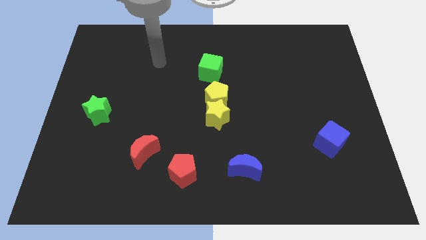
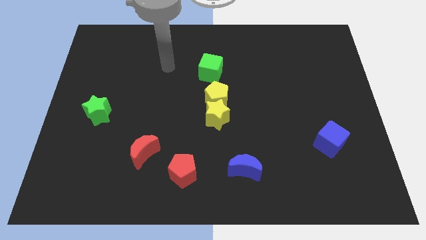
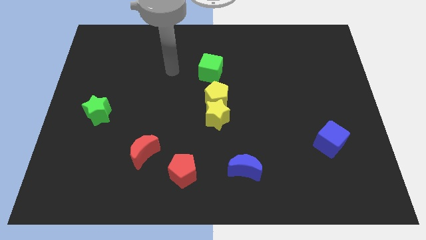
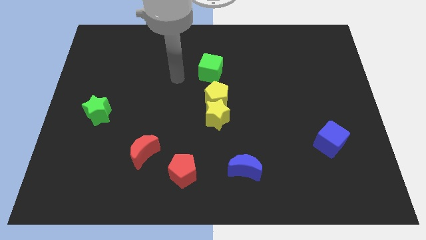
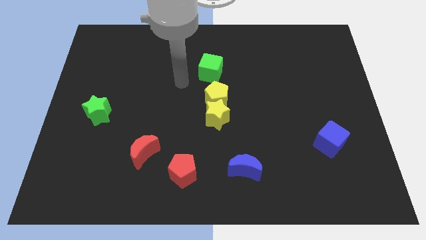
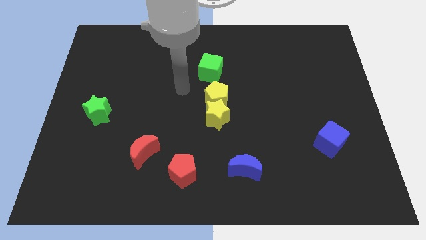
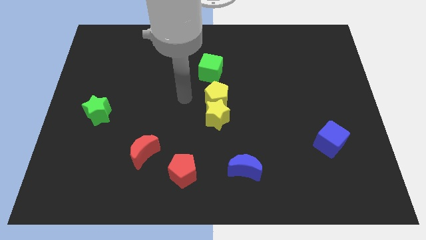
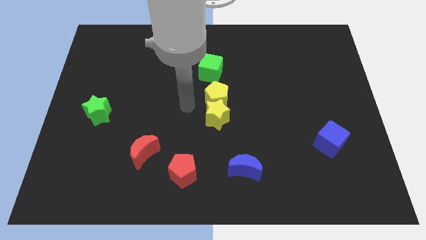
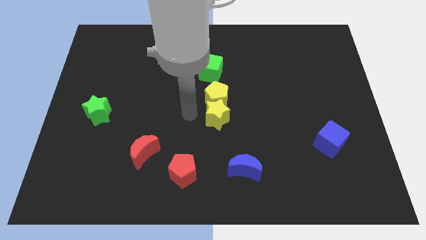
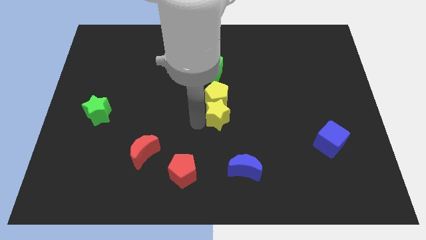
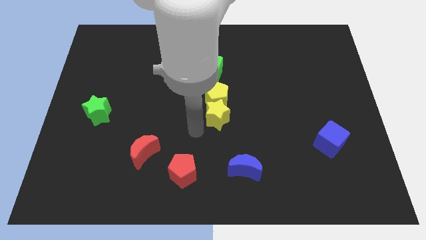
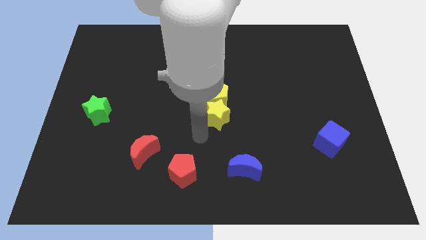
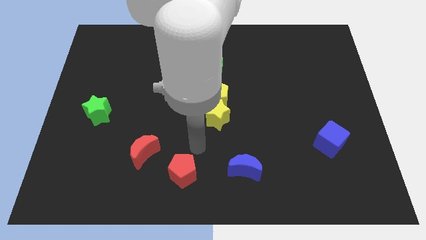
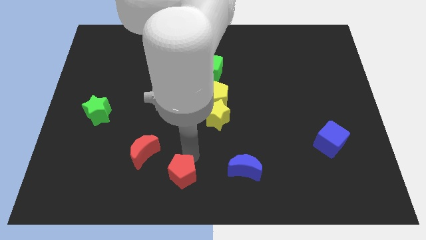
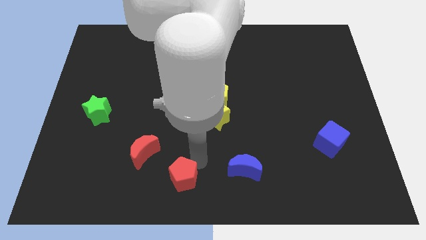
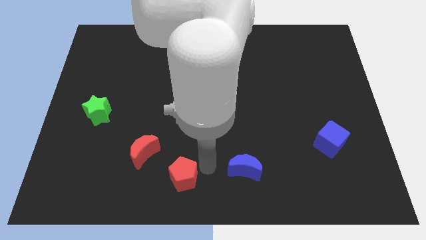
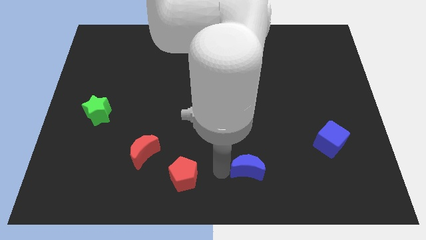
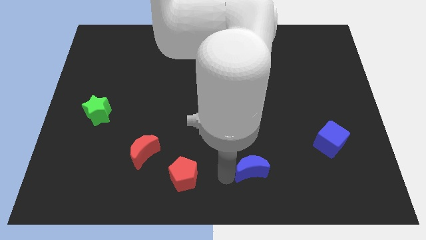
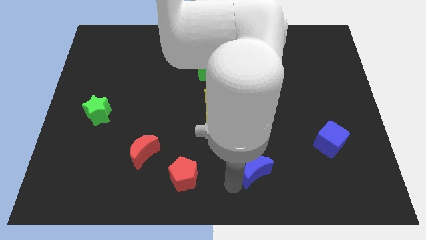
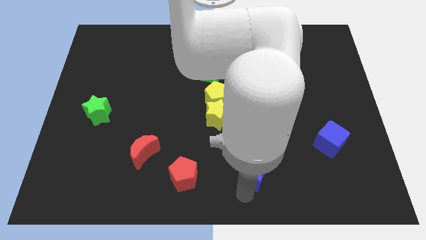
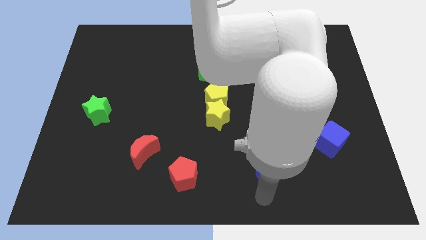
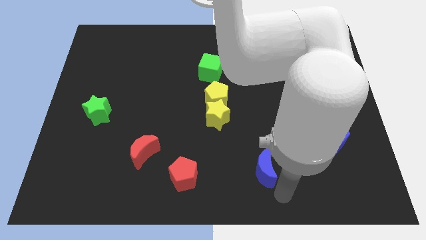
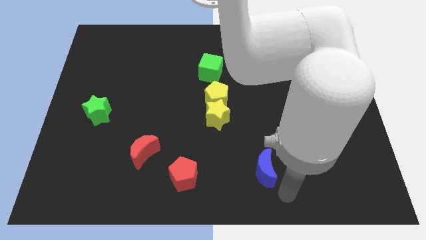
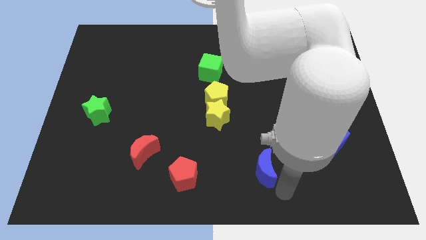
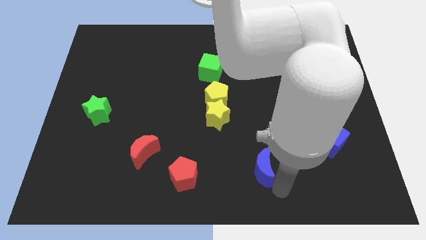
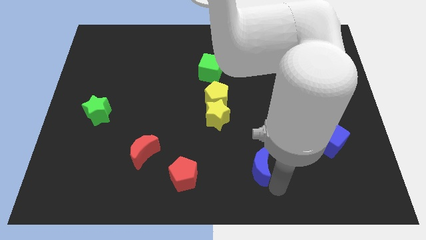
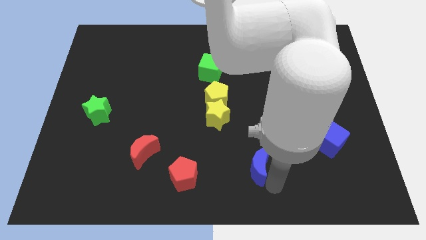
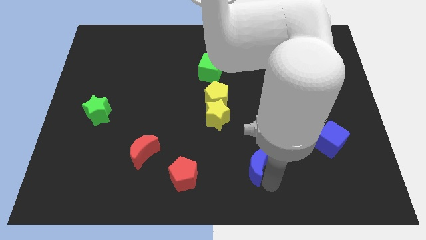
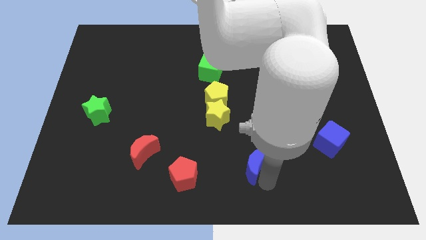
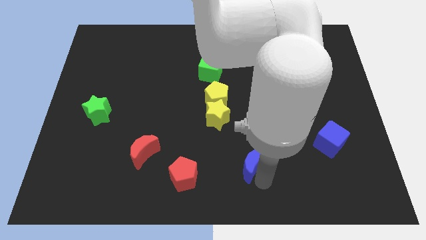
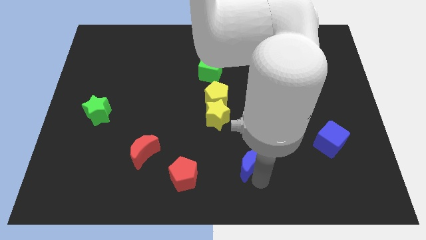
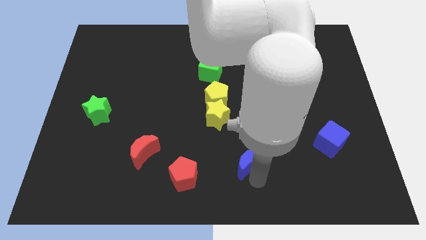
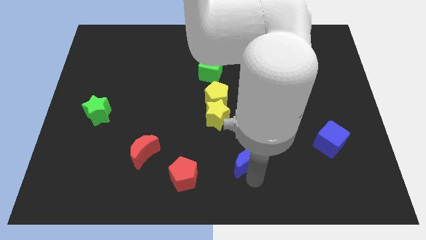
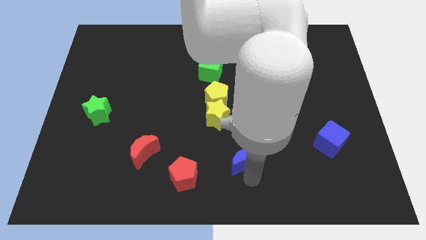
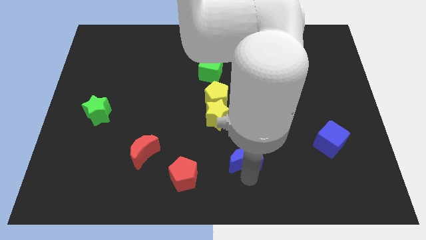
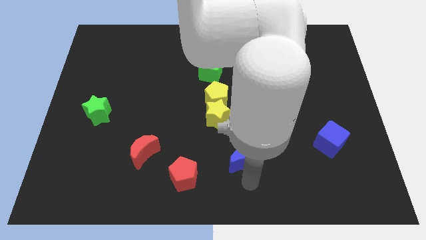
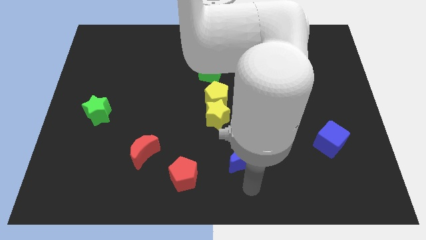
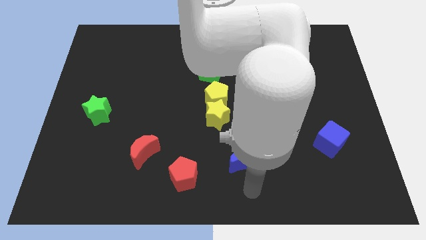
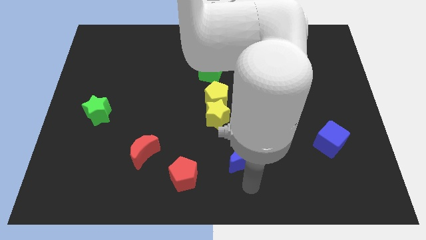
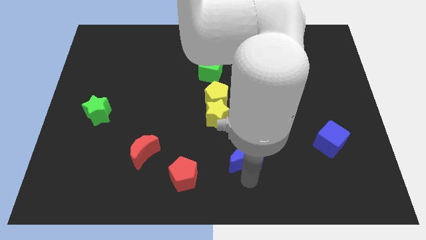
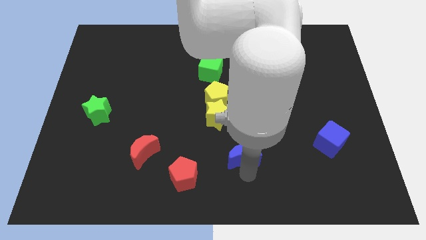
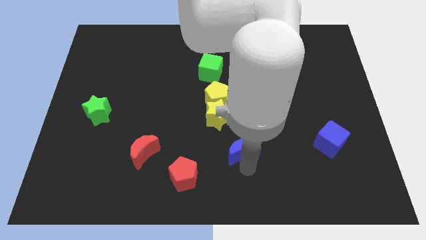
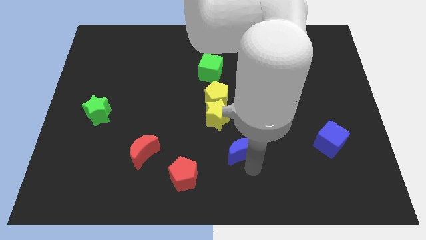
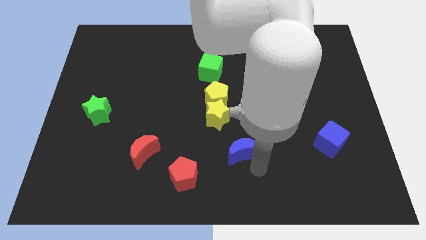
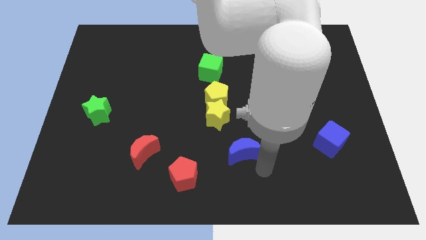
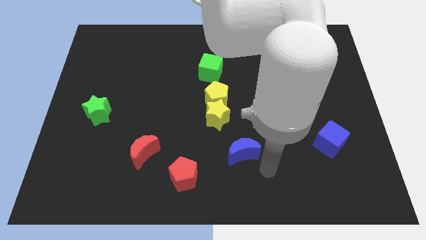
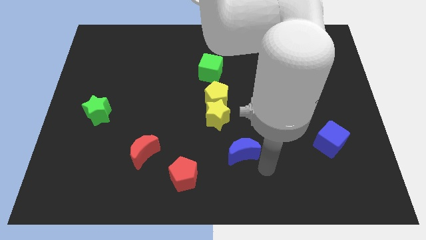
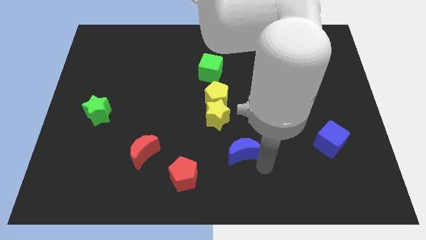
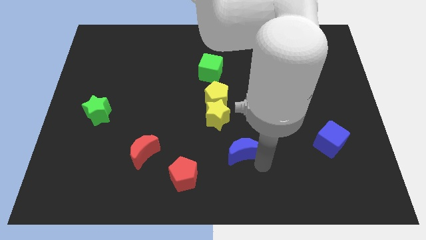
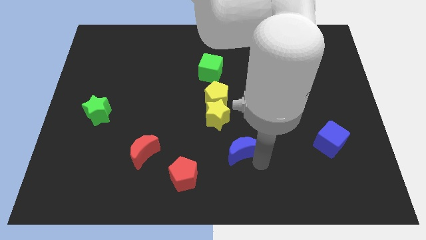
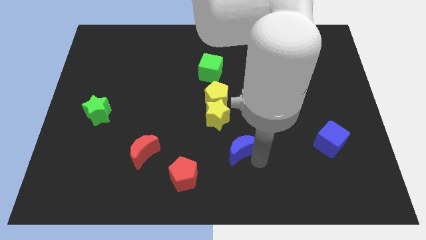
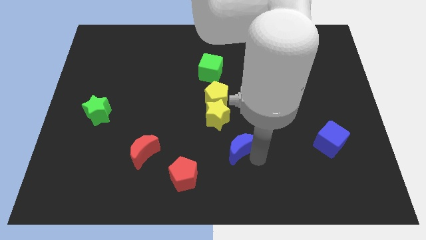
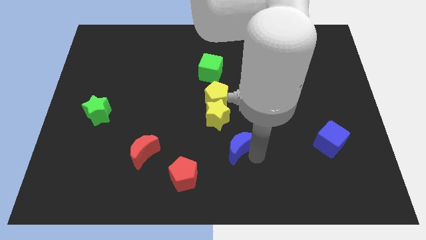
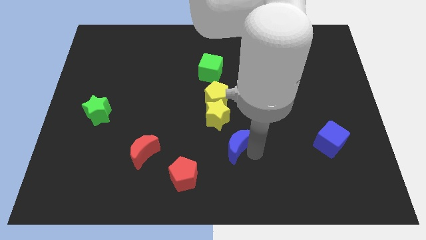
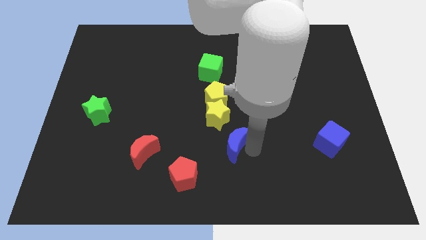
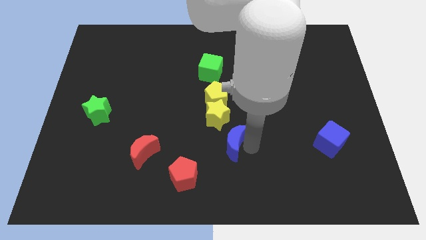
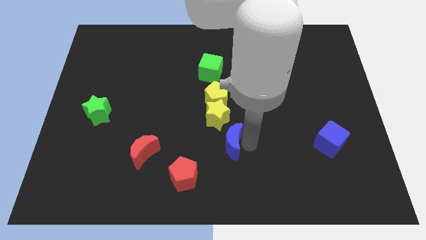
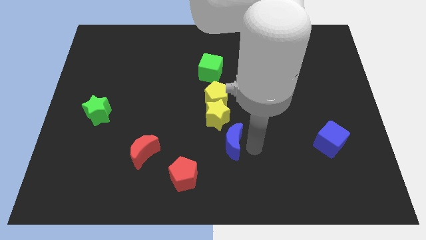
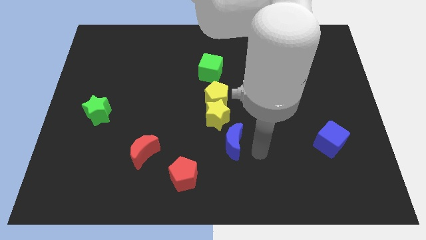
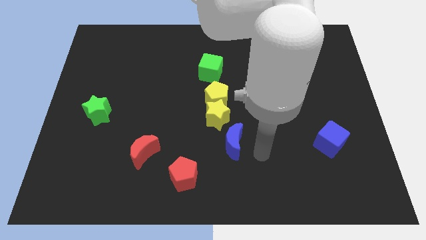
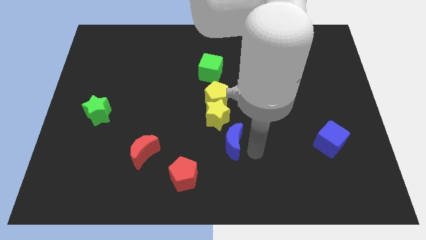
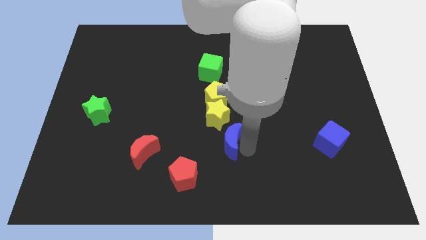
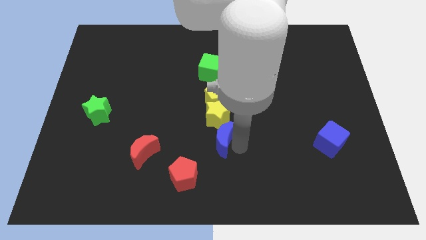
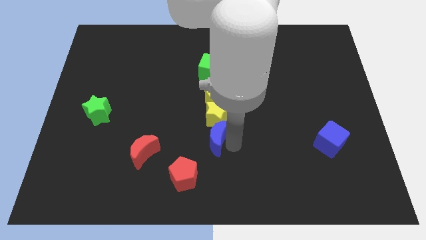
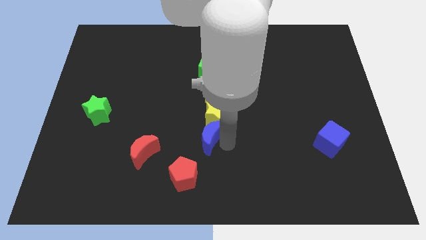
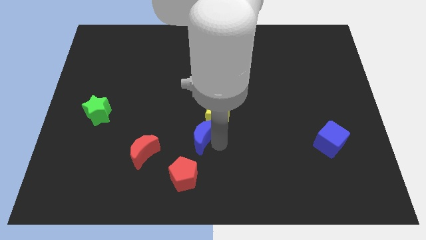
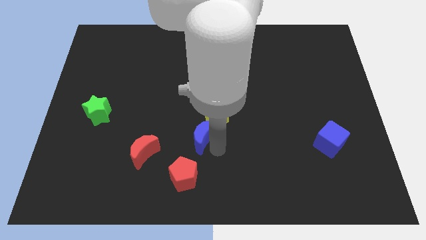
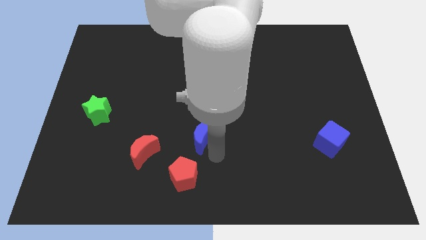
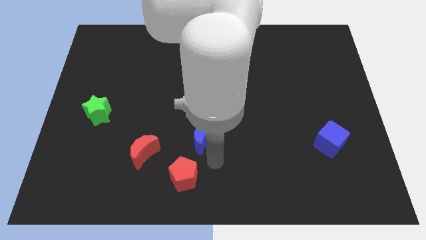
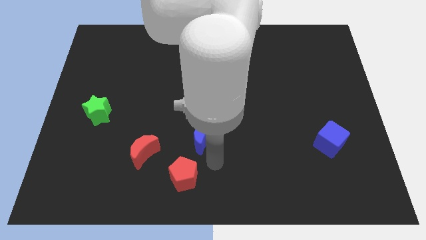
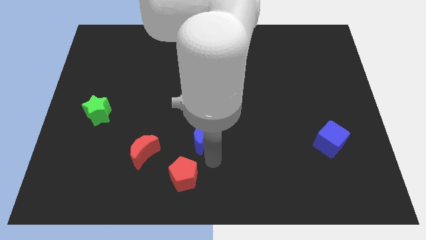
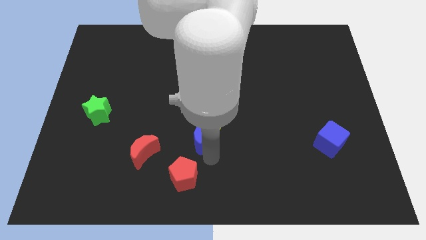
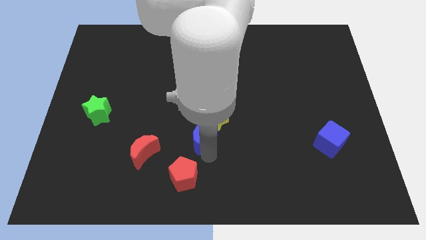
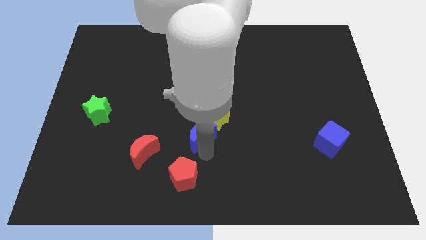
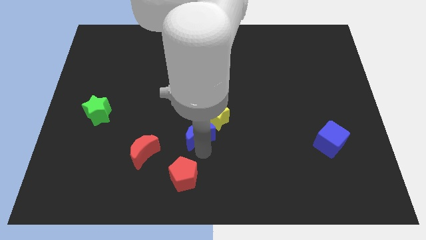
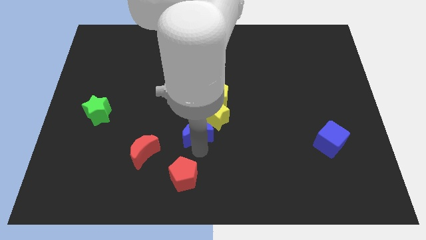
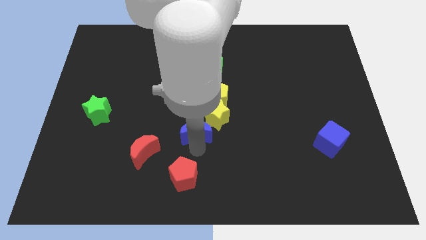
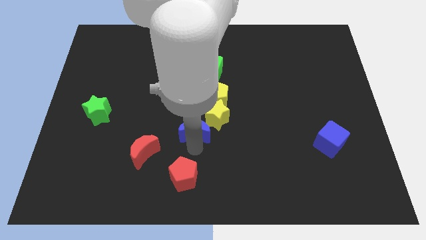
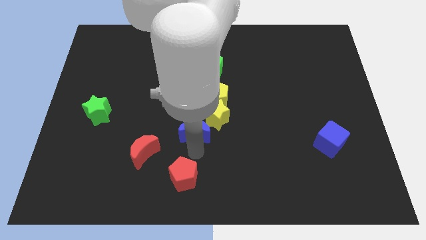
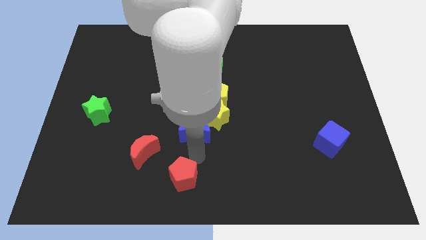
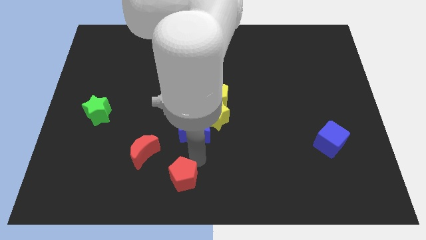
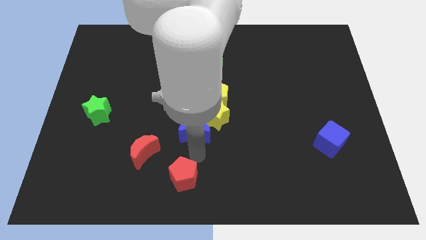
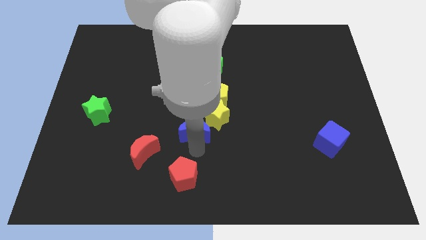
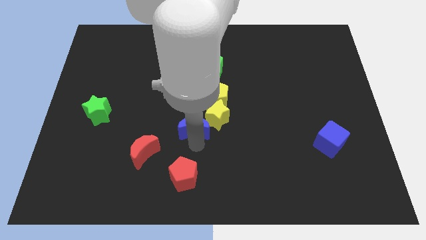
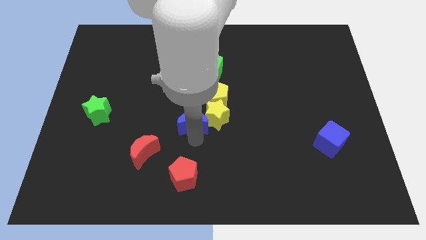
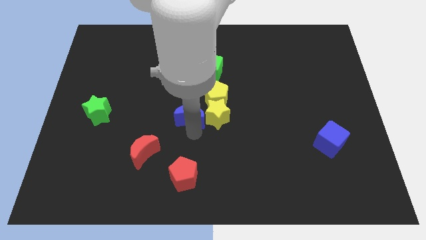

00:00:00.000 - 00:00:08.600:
move the blue moon diagonally up and to the left of the yellow star
